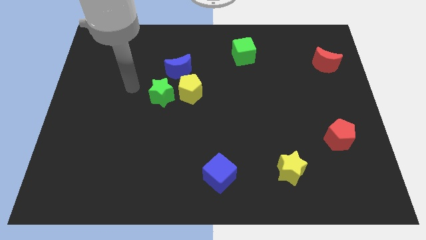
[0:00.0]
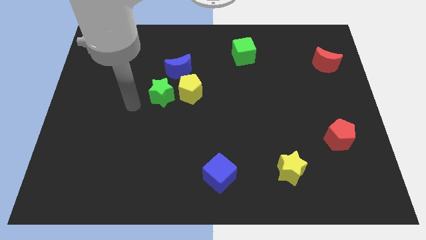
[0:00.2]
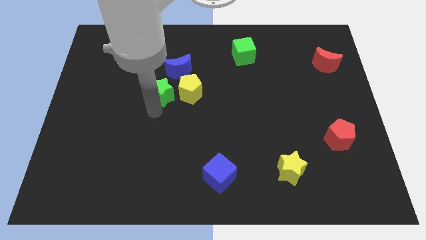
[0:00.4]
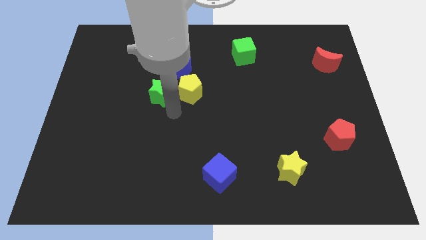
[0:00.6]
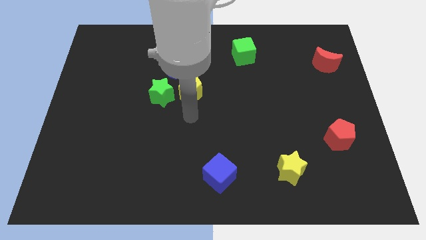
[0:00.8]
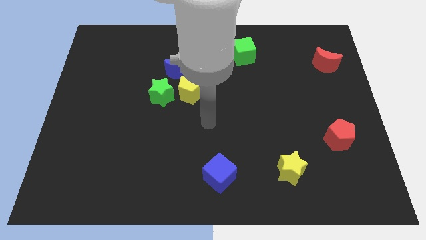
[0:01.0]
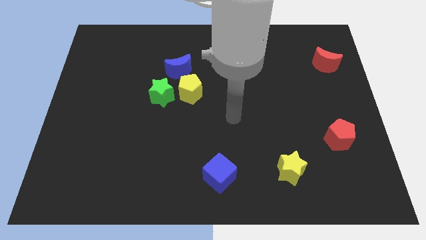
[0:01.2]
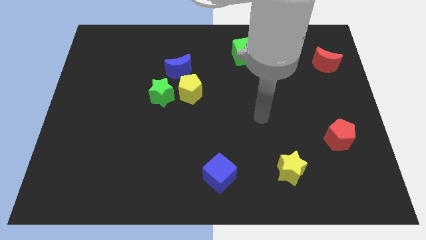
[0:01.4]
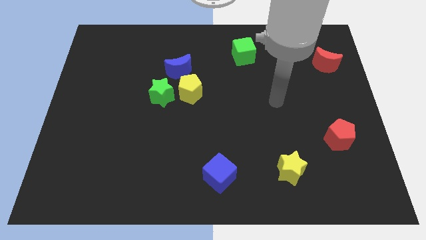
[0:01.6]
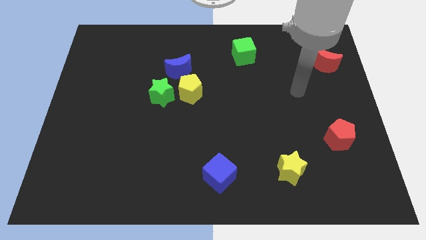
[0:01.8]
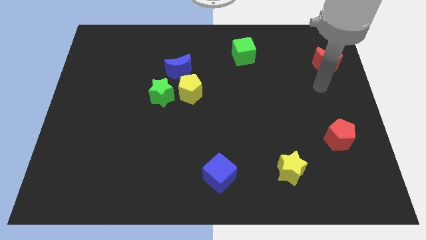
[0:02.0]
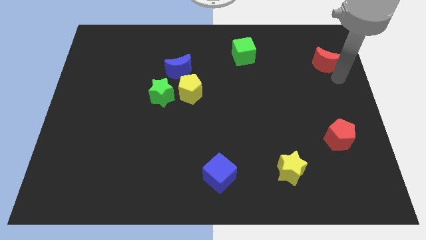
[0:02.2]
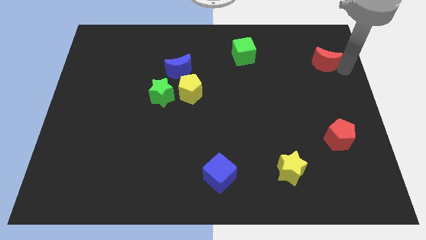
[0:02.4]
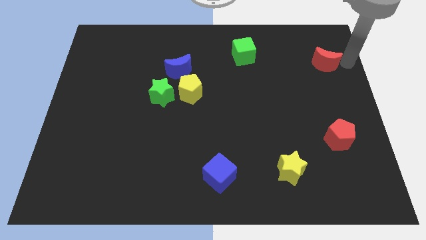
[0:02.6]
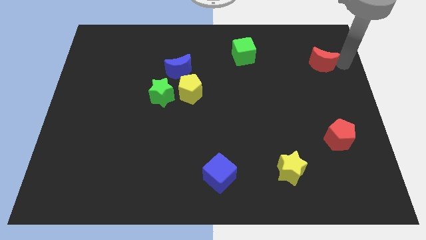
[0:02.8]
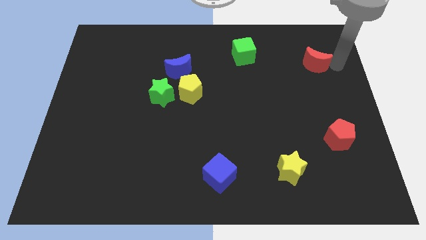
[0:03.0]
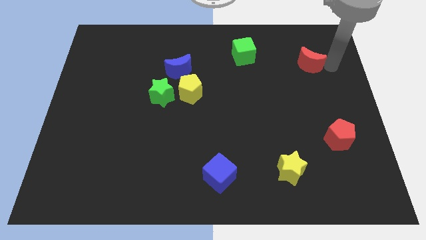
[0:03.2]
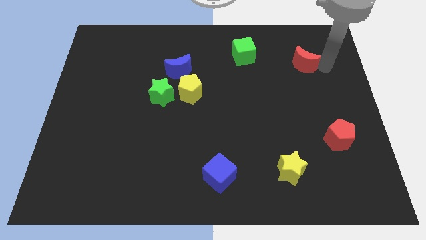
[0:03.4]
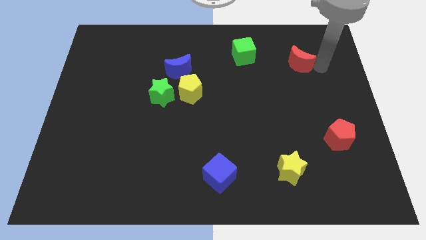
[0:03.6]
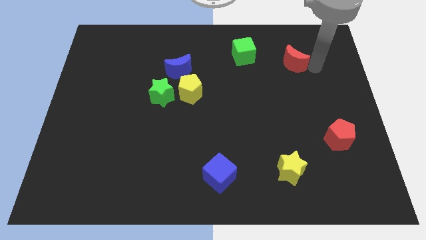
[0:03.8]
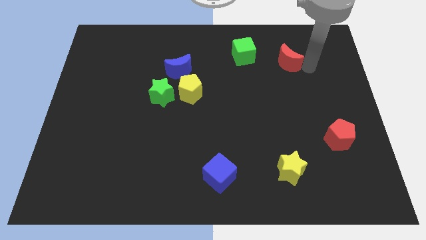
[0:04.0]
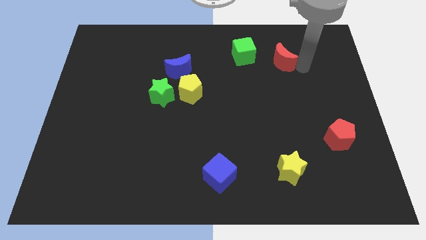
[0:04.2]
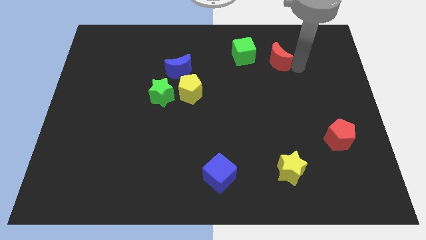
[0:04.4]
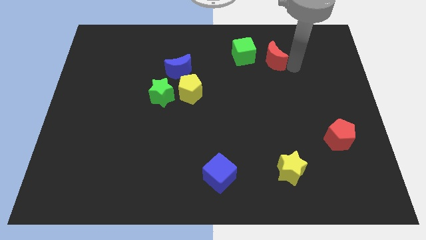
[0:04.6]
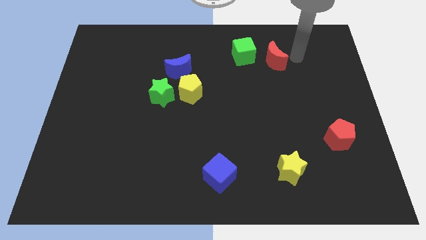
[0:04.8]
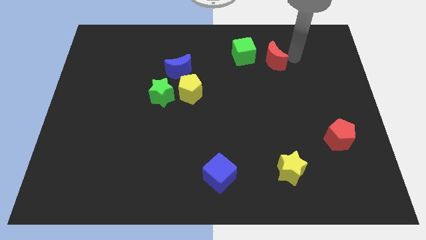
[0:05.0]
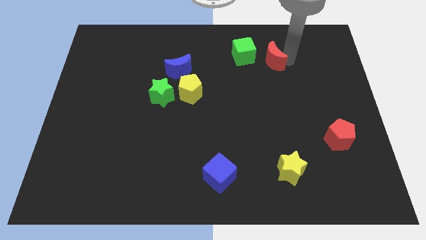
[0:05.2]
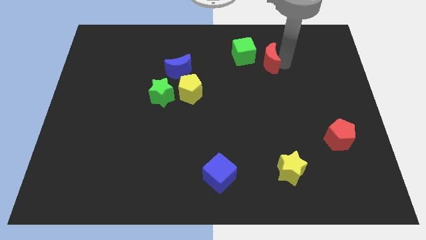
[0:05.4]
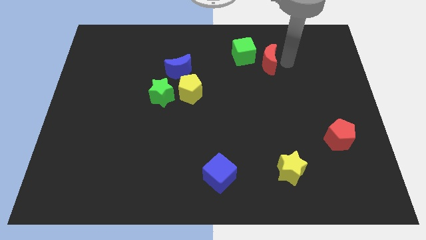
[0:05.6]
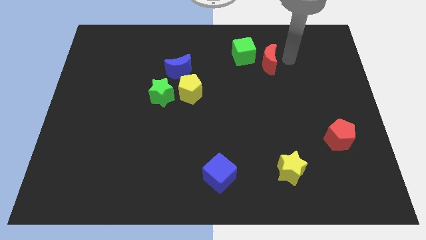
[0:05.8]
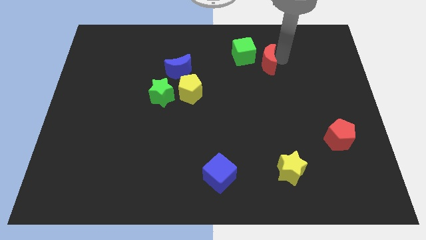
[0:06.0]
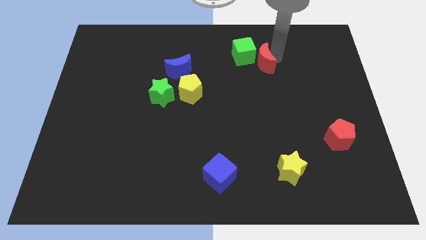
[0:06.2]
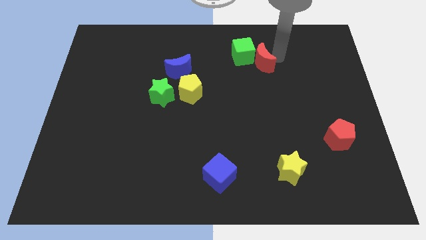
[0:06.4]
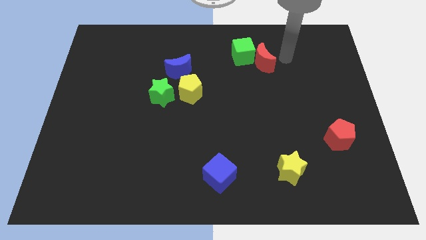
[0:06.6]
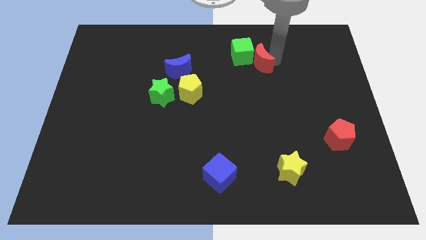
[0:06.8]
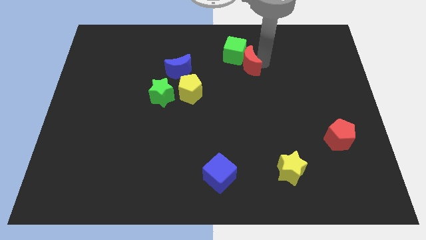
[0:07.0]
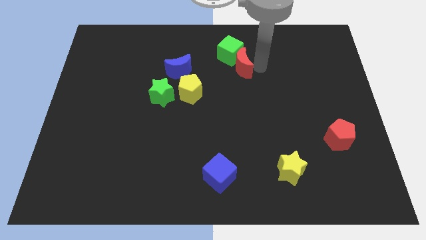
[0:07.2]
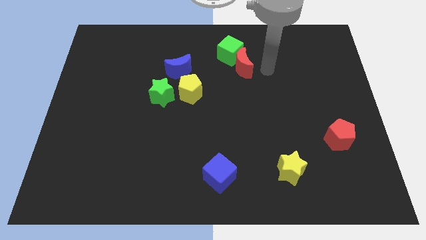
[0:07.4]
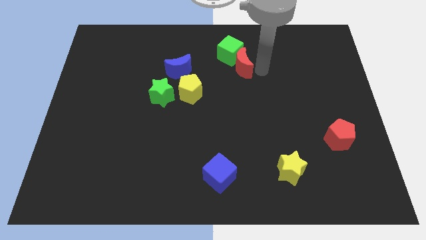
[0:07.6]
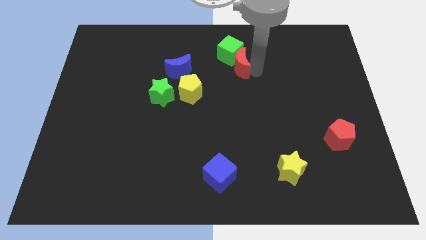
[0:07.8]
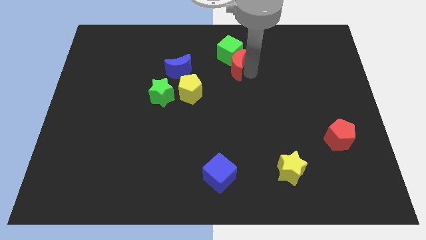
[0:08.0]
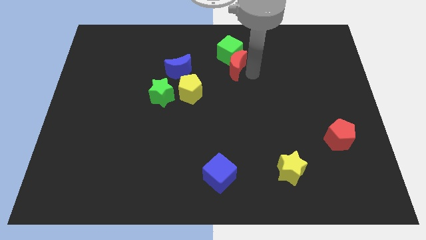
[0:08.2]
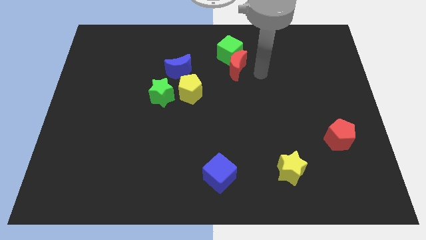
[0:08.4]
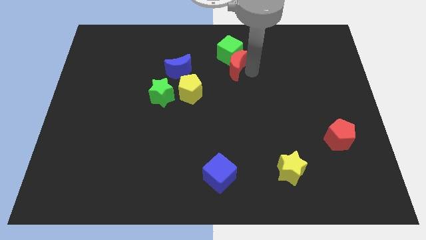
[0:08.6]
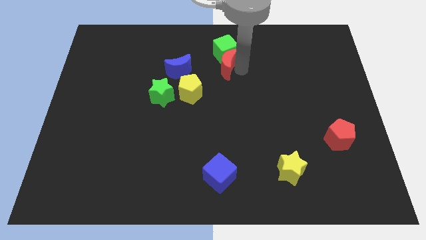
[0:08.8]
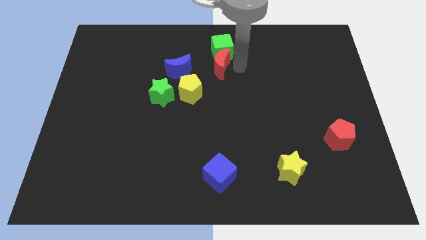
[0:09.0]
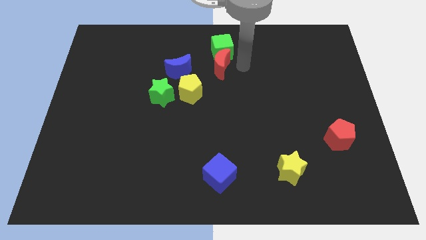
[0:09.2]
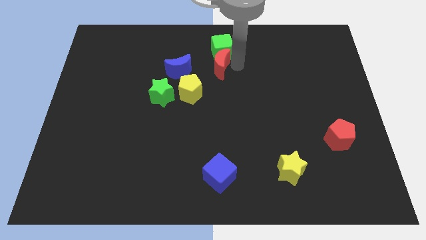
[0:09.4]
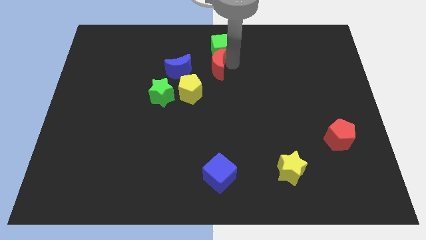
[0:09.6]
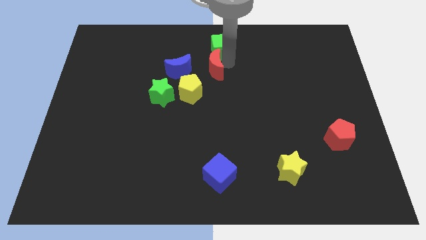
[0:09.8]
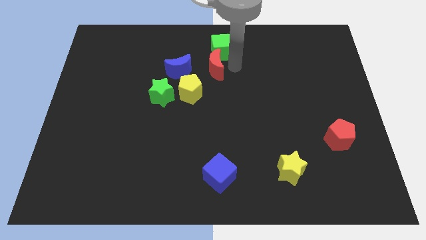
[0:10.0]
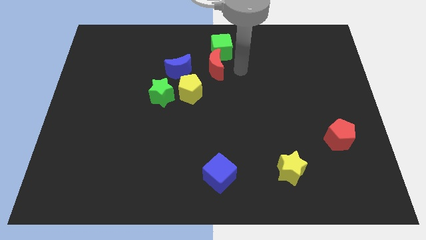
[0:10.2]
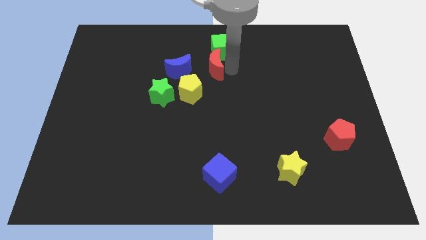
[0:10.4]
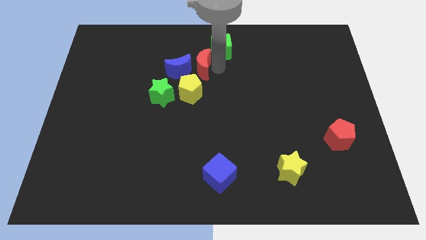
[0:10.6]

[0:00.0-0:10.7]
push the red moon to the blue moon

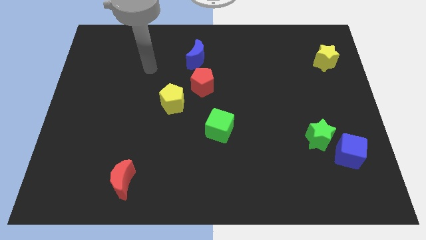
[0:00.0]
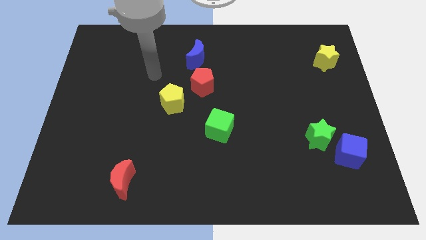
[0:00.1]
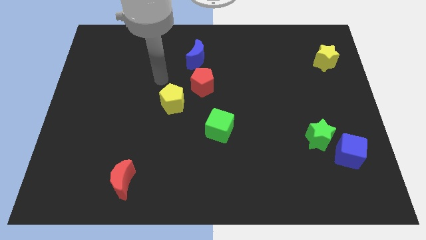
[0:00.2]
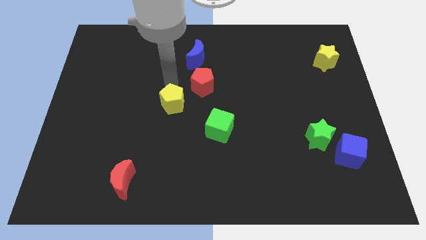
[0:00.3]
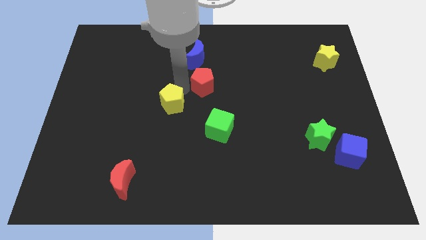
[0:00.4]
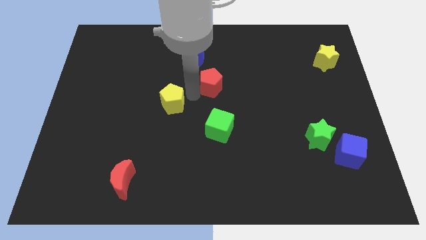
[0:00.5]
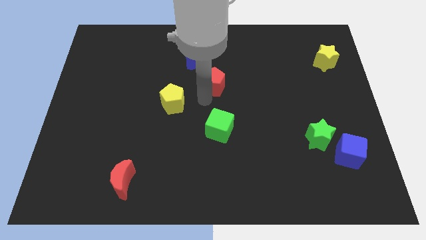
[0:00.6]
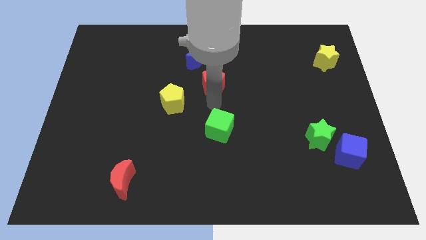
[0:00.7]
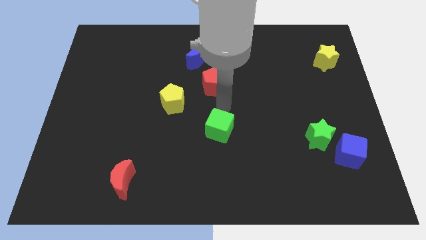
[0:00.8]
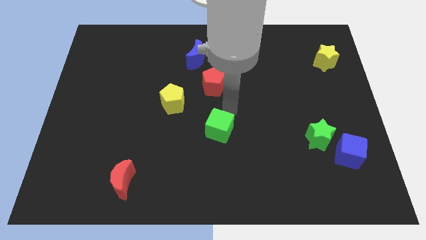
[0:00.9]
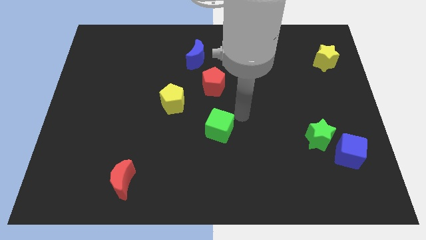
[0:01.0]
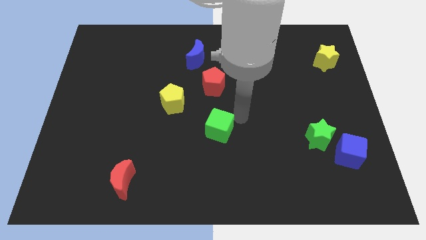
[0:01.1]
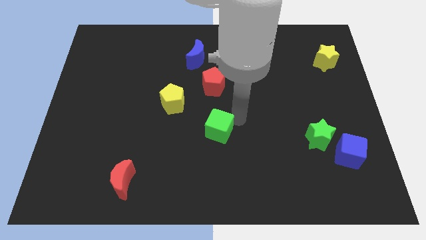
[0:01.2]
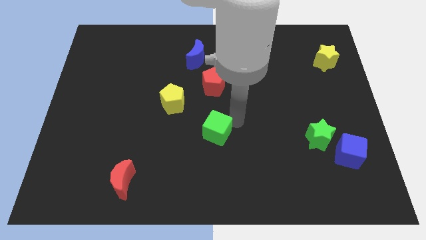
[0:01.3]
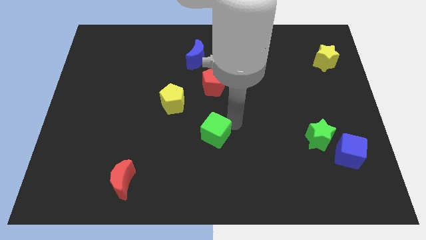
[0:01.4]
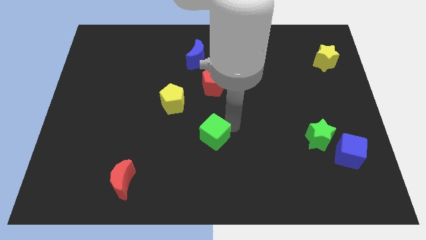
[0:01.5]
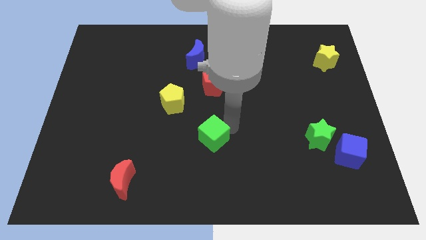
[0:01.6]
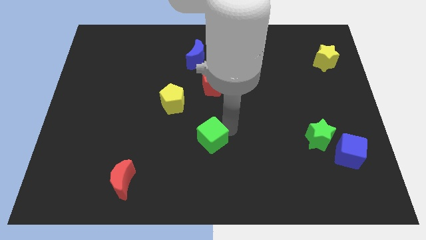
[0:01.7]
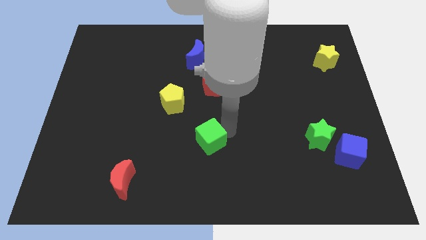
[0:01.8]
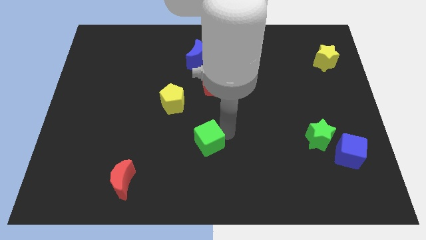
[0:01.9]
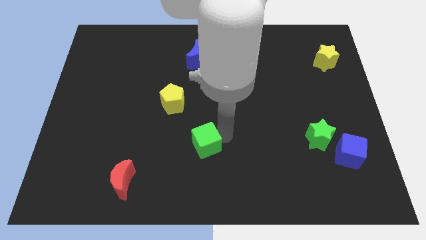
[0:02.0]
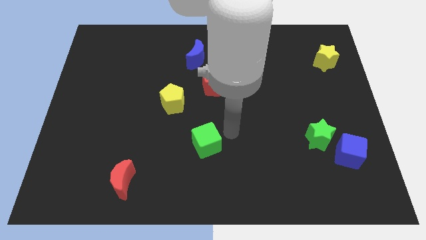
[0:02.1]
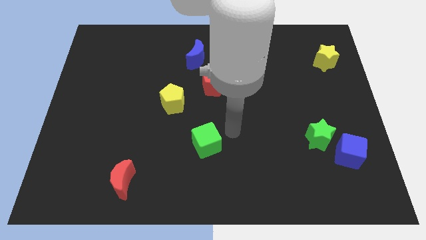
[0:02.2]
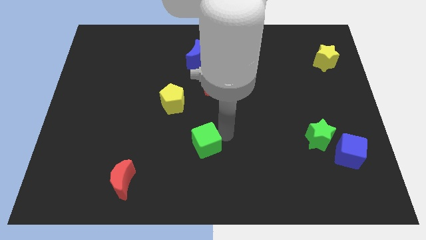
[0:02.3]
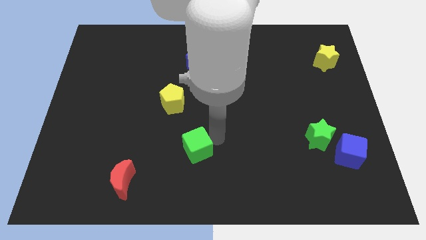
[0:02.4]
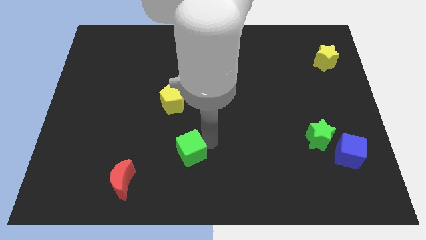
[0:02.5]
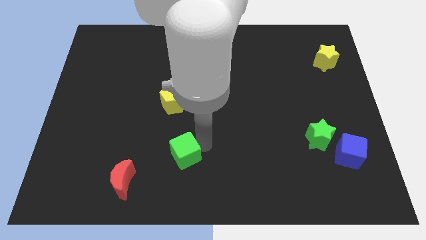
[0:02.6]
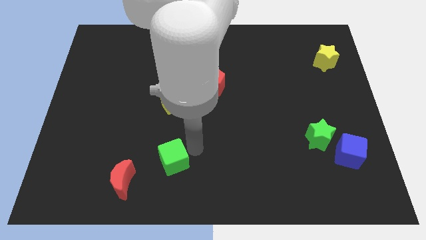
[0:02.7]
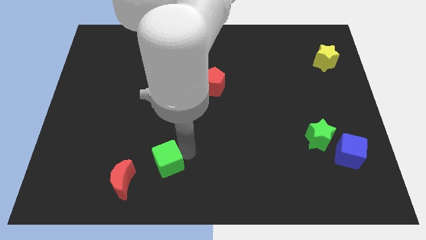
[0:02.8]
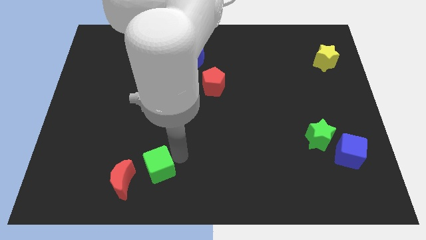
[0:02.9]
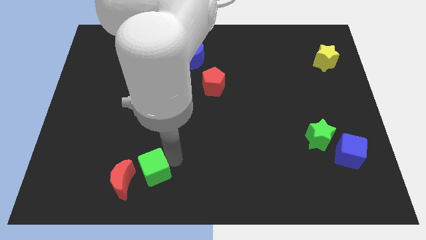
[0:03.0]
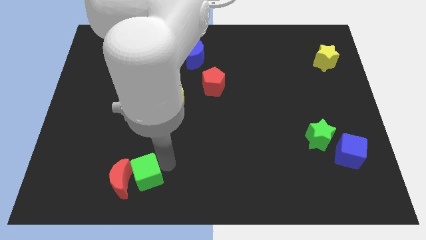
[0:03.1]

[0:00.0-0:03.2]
slide the green cube next to the red moon
